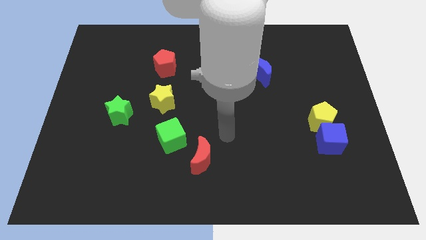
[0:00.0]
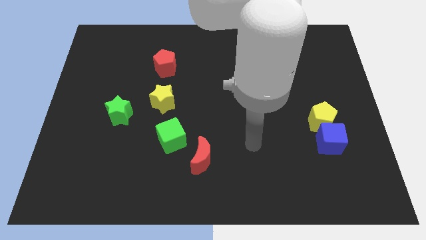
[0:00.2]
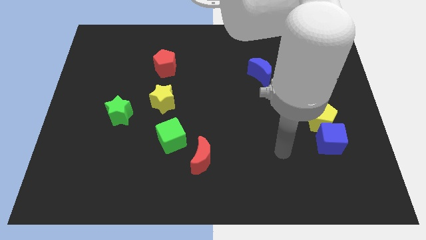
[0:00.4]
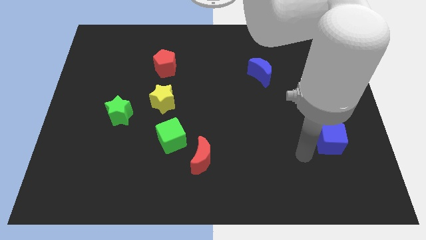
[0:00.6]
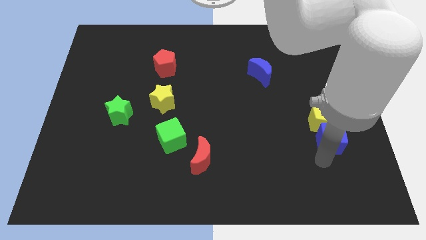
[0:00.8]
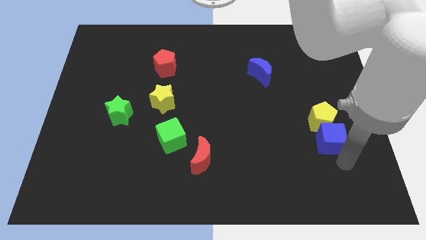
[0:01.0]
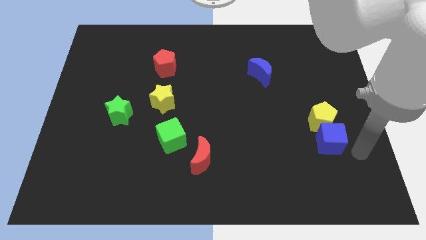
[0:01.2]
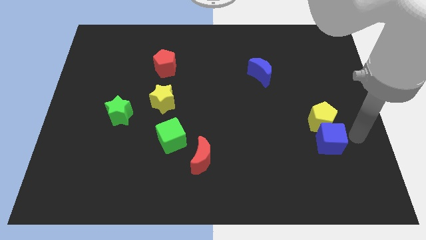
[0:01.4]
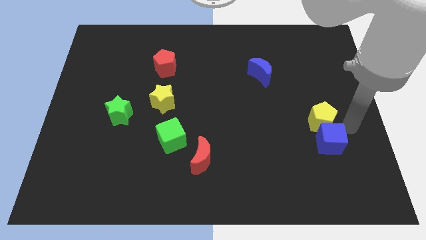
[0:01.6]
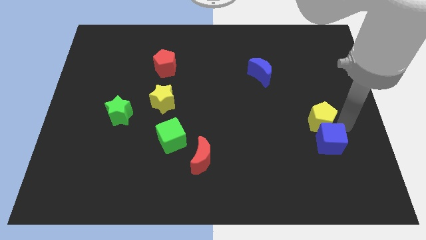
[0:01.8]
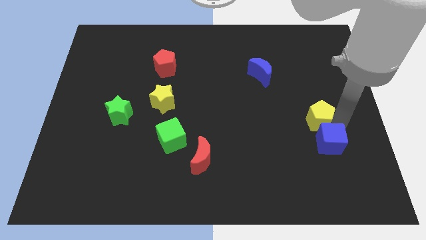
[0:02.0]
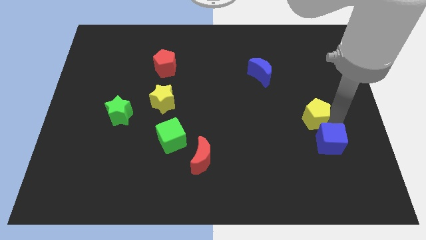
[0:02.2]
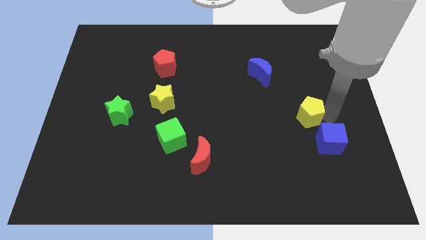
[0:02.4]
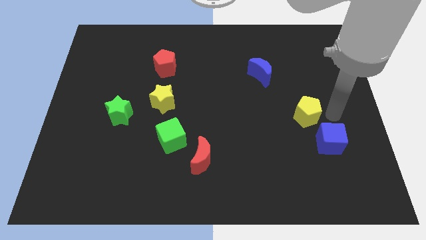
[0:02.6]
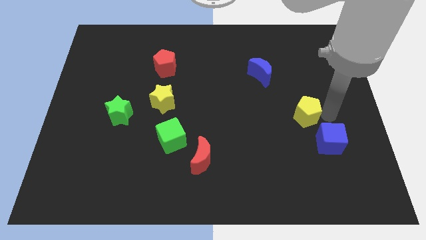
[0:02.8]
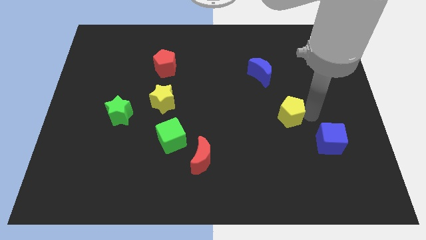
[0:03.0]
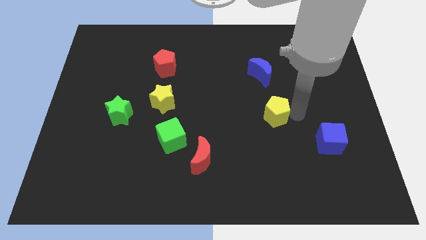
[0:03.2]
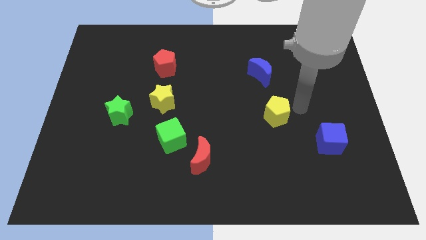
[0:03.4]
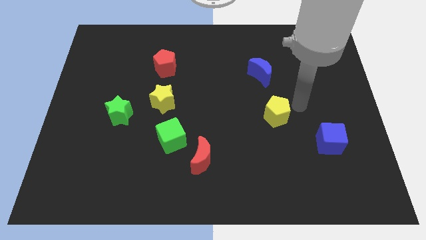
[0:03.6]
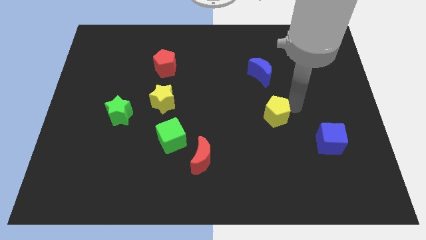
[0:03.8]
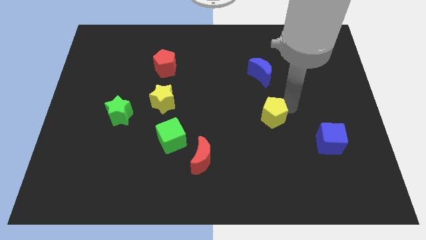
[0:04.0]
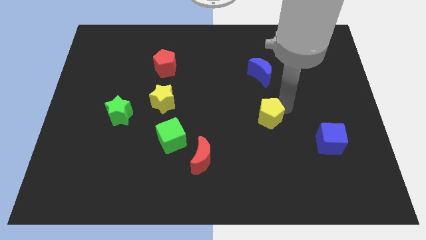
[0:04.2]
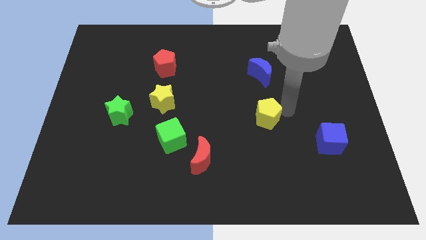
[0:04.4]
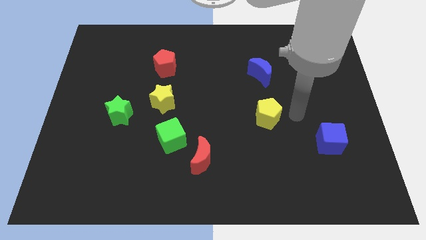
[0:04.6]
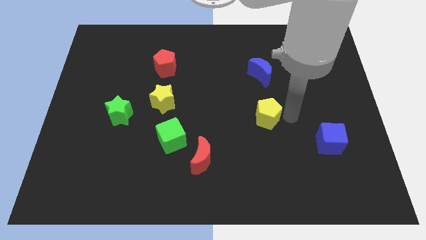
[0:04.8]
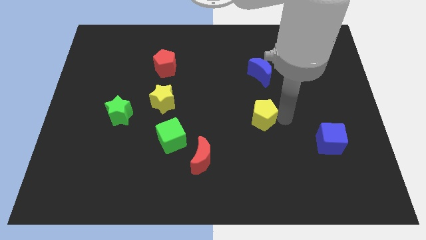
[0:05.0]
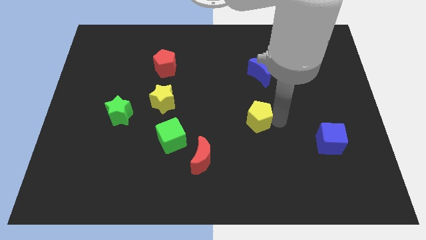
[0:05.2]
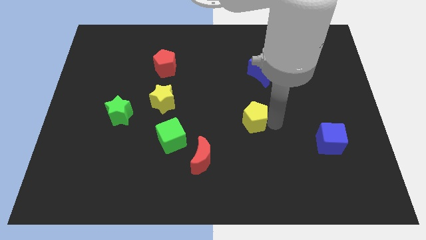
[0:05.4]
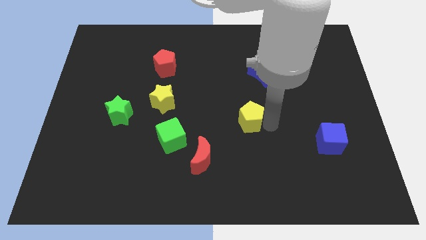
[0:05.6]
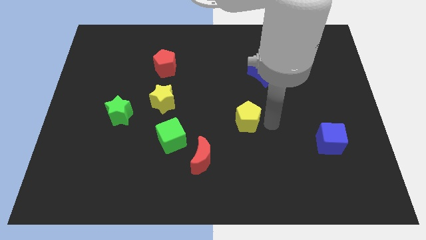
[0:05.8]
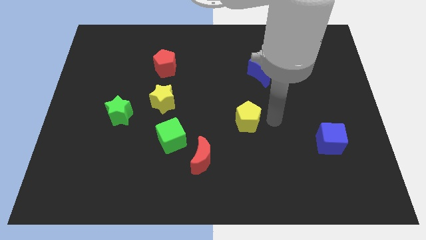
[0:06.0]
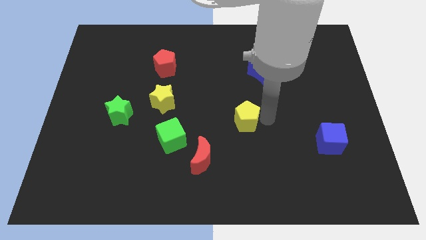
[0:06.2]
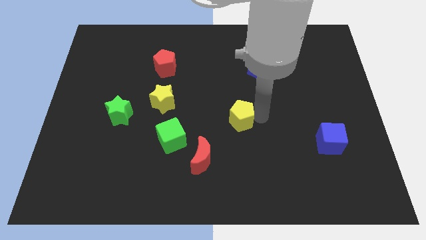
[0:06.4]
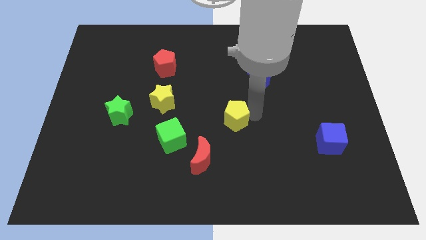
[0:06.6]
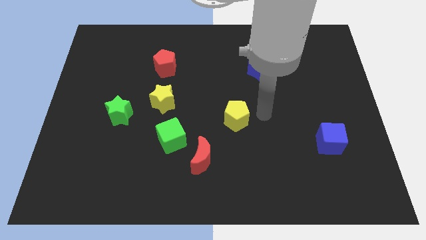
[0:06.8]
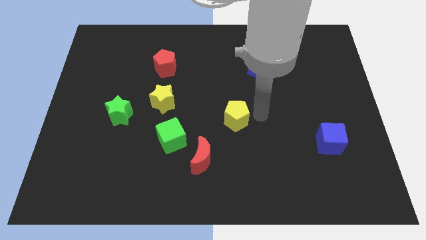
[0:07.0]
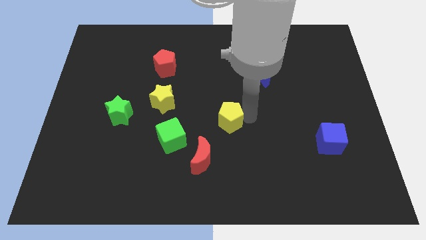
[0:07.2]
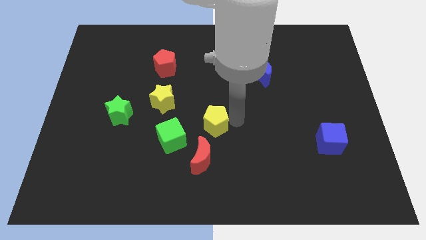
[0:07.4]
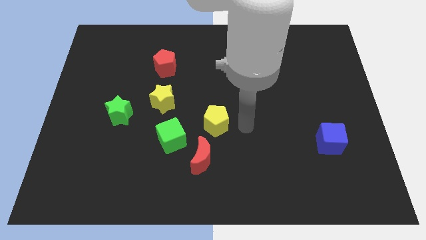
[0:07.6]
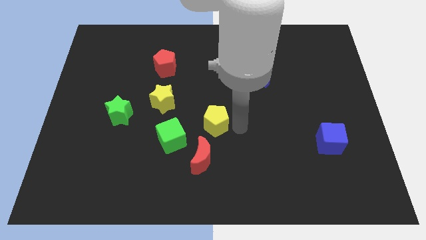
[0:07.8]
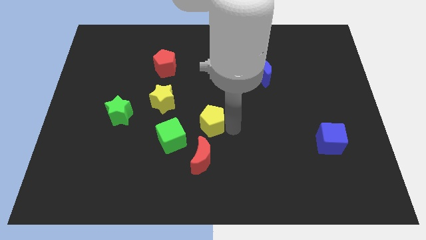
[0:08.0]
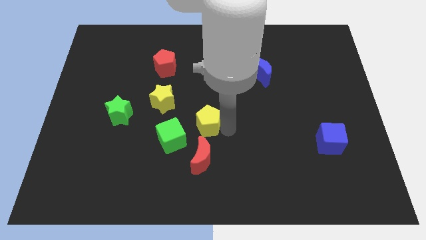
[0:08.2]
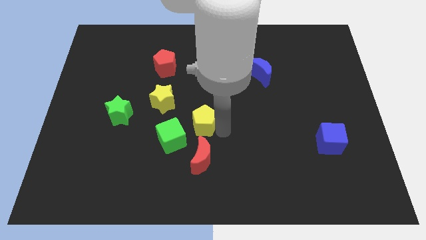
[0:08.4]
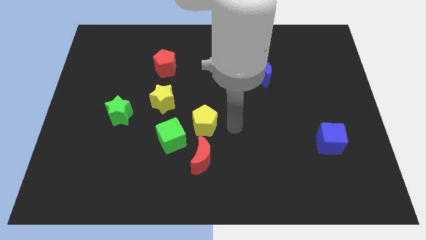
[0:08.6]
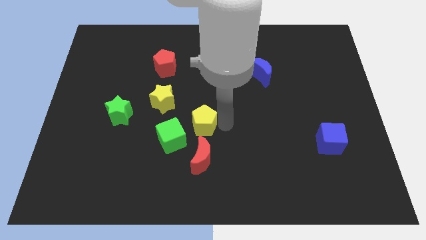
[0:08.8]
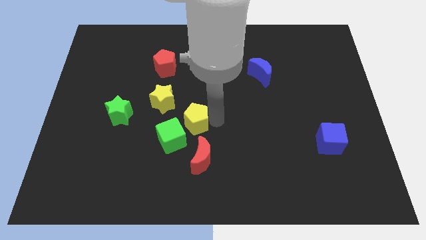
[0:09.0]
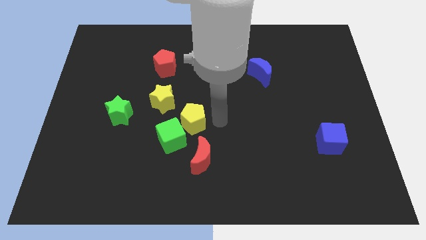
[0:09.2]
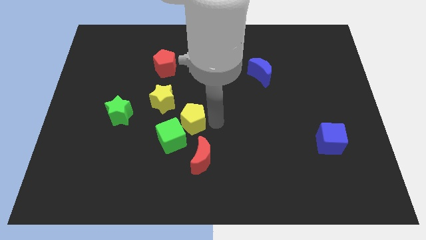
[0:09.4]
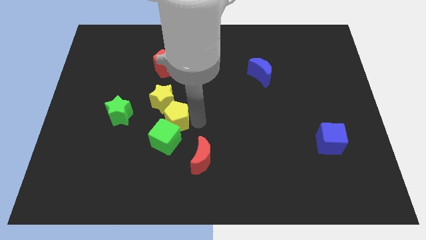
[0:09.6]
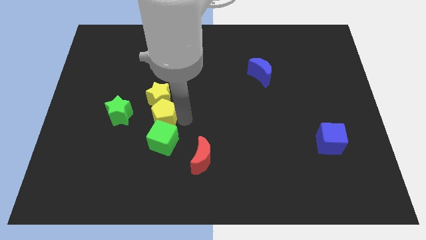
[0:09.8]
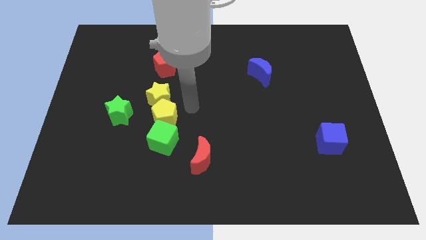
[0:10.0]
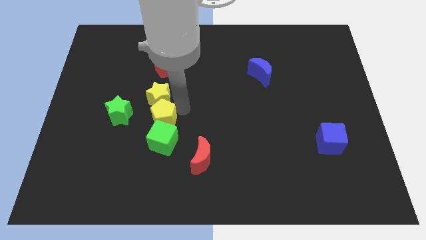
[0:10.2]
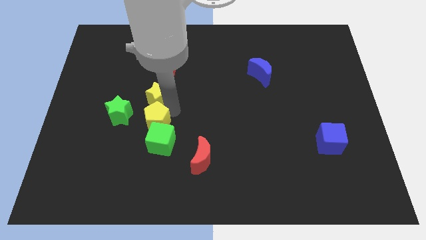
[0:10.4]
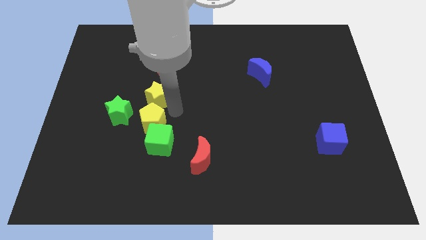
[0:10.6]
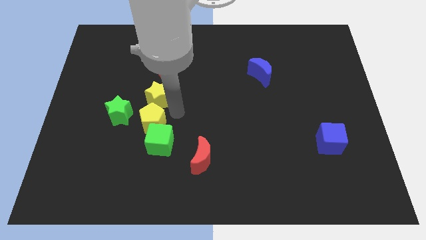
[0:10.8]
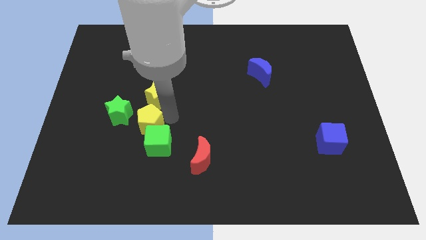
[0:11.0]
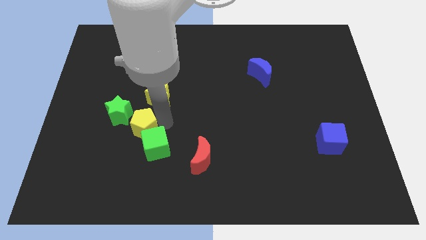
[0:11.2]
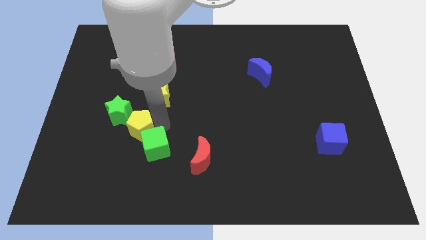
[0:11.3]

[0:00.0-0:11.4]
push the yellow pentagon to the left side of the green cube

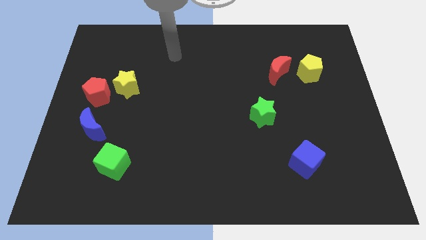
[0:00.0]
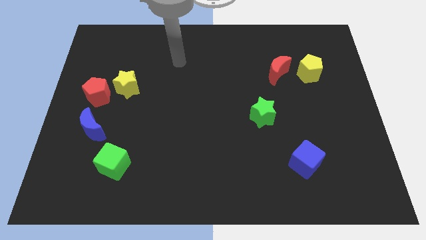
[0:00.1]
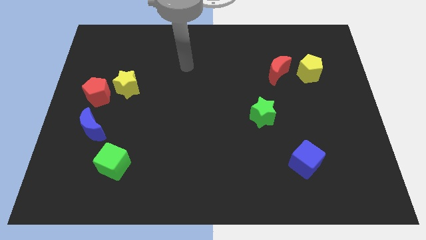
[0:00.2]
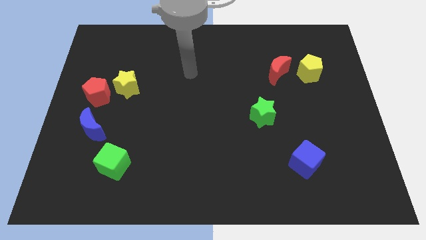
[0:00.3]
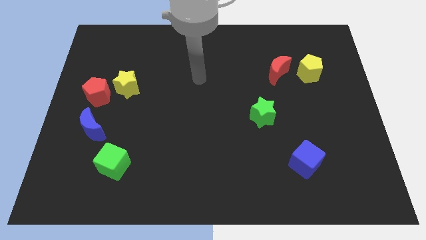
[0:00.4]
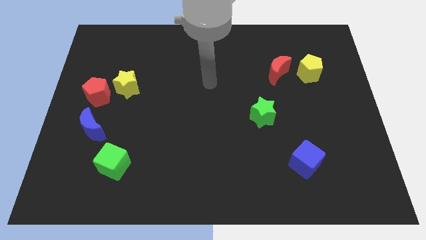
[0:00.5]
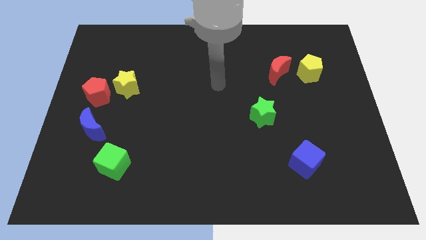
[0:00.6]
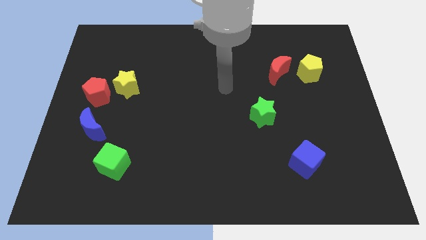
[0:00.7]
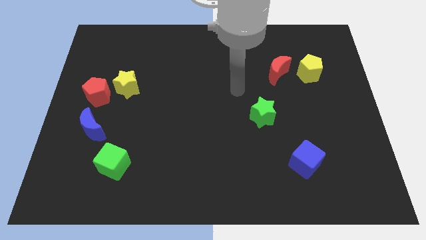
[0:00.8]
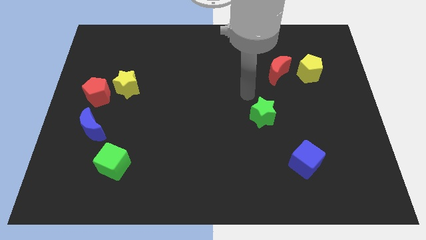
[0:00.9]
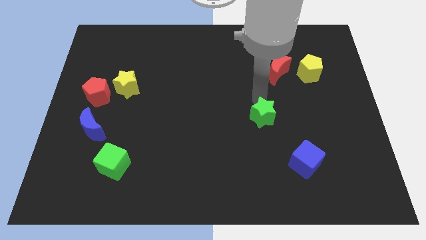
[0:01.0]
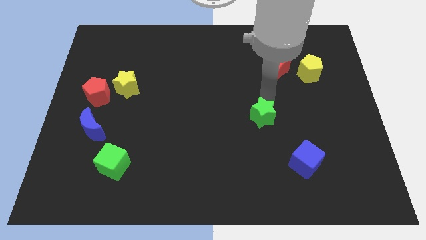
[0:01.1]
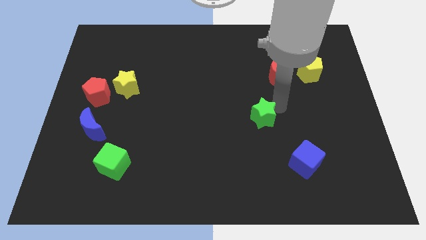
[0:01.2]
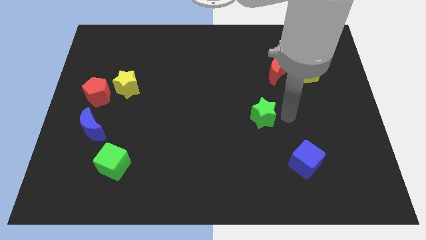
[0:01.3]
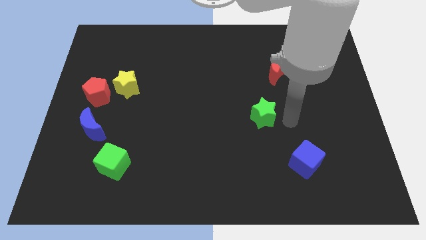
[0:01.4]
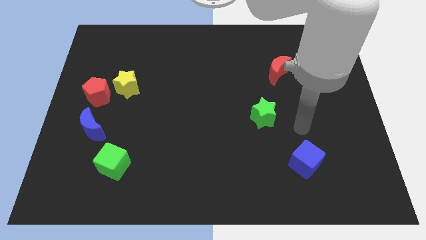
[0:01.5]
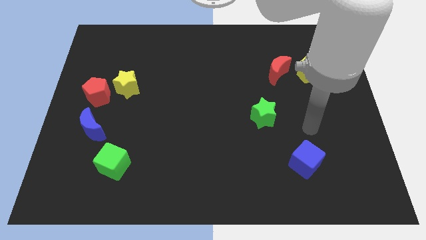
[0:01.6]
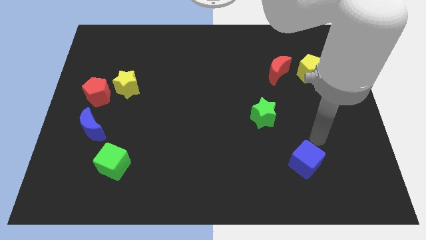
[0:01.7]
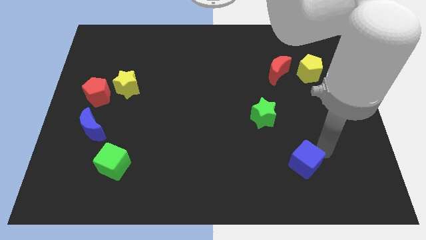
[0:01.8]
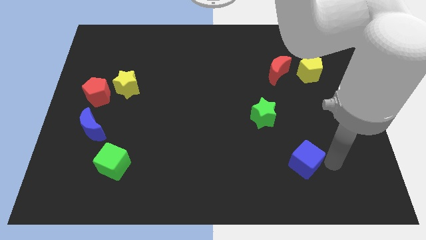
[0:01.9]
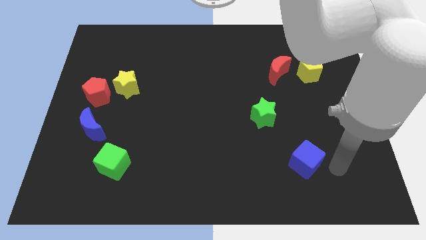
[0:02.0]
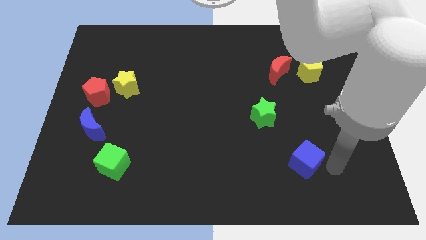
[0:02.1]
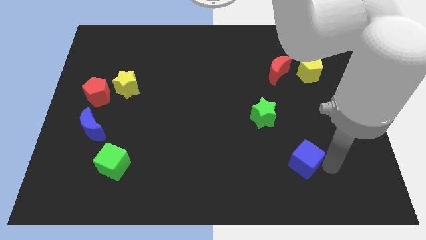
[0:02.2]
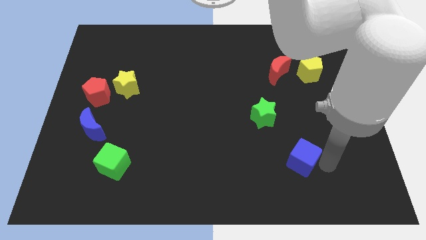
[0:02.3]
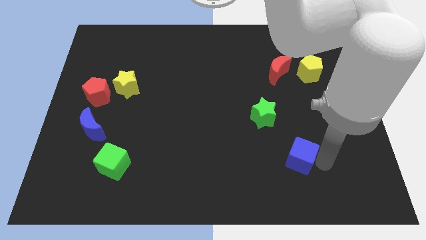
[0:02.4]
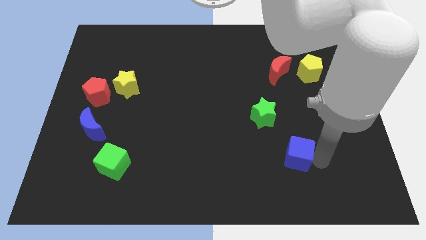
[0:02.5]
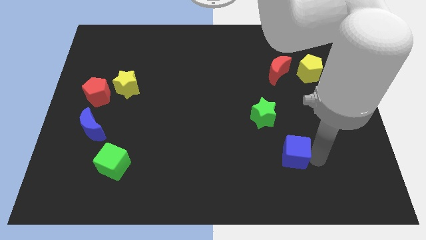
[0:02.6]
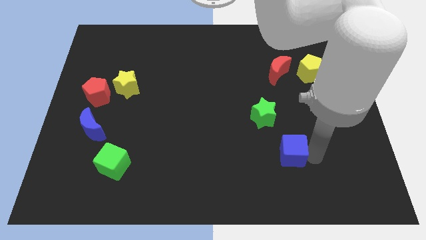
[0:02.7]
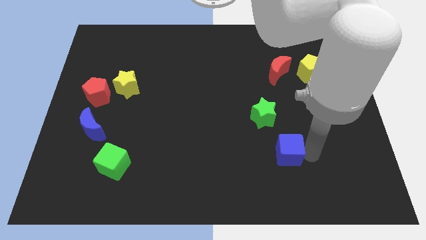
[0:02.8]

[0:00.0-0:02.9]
slide the blue cube below the green star
